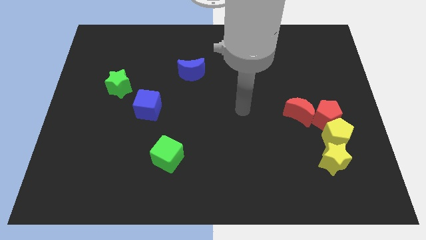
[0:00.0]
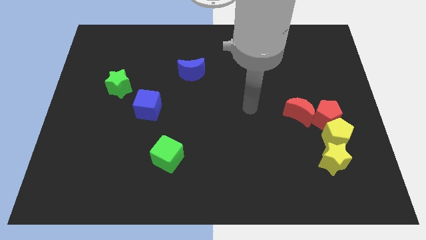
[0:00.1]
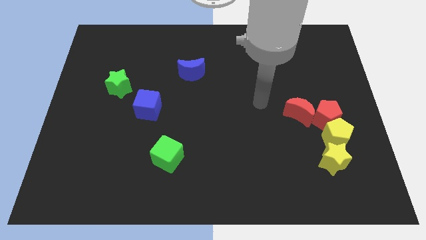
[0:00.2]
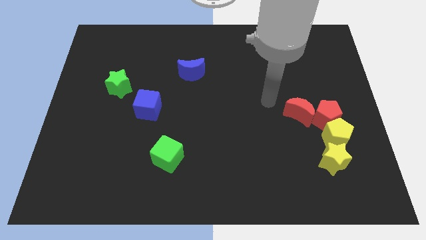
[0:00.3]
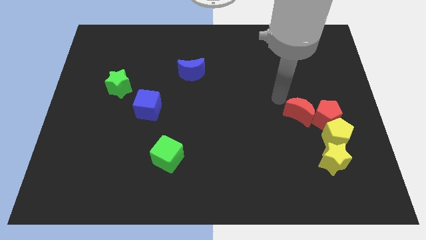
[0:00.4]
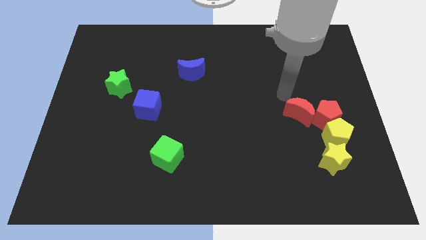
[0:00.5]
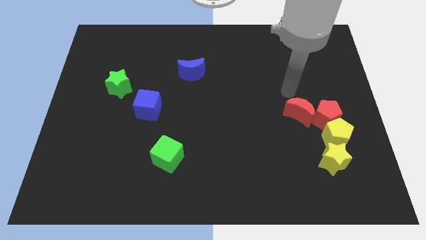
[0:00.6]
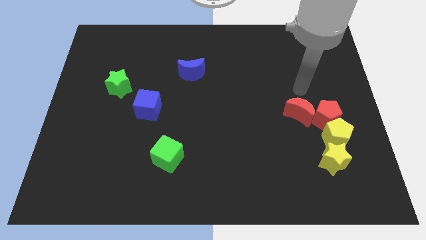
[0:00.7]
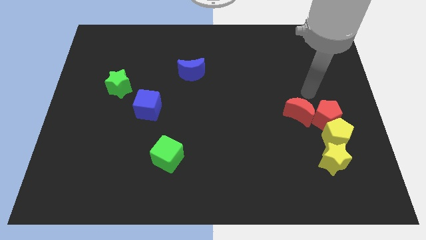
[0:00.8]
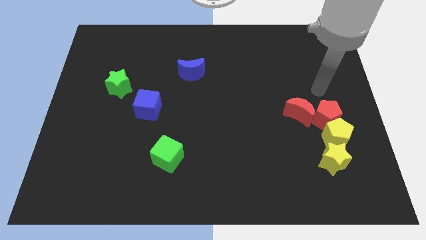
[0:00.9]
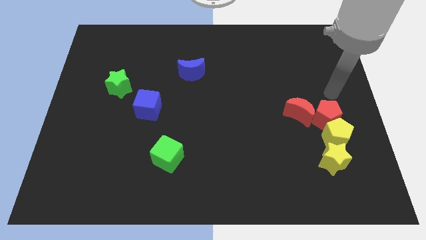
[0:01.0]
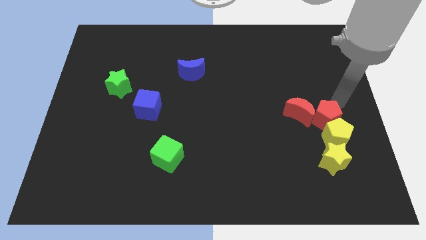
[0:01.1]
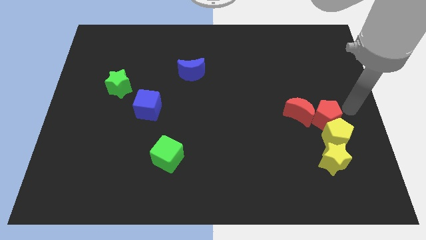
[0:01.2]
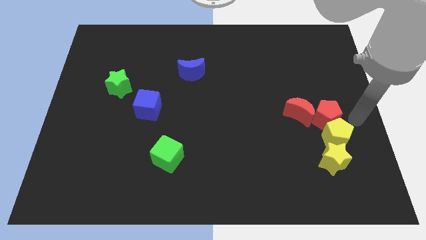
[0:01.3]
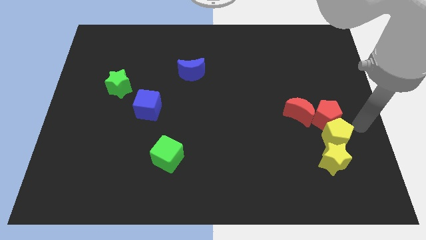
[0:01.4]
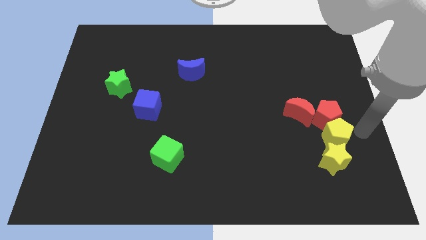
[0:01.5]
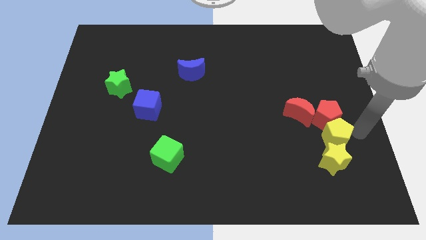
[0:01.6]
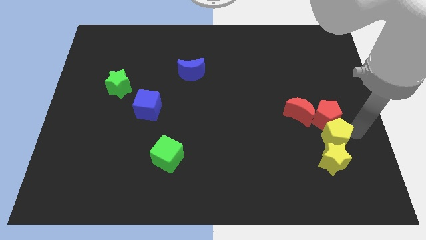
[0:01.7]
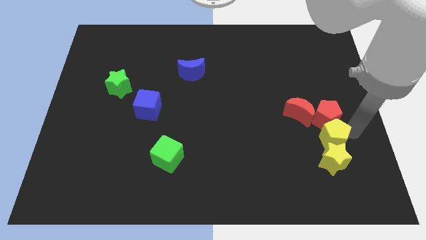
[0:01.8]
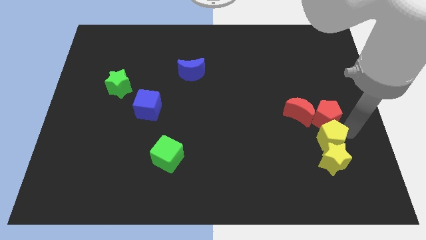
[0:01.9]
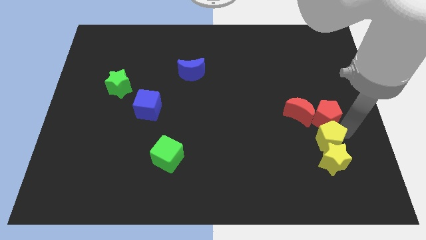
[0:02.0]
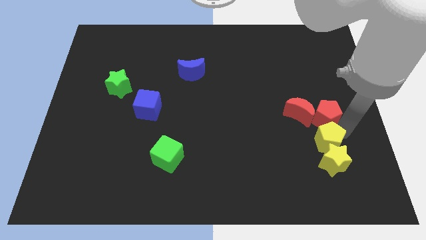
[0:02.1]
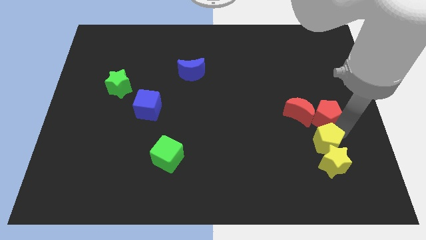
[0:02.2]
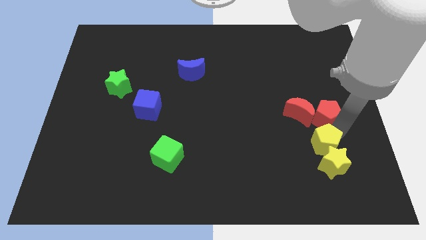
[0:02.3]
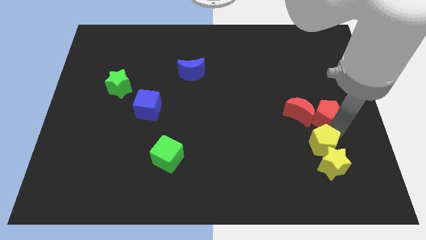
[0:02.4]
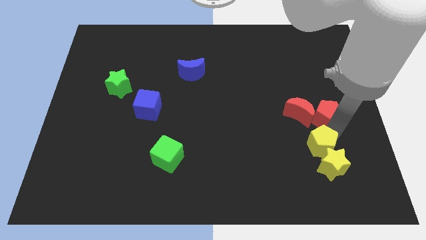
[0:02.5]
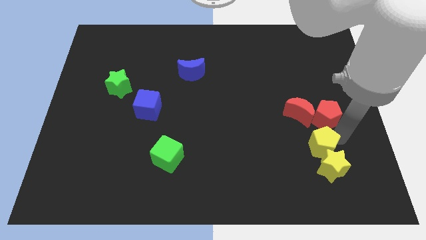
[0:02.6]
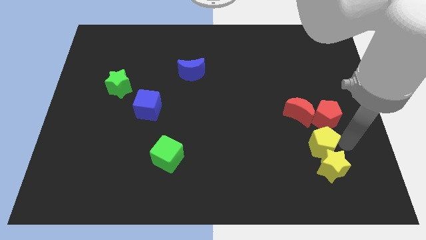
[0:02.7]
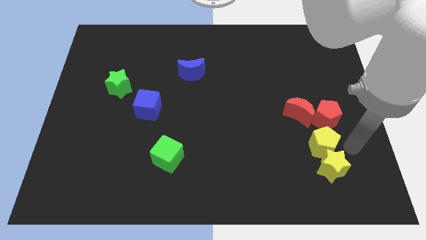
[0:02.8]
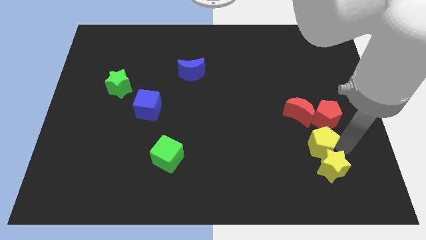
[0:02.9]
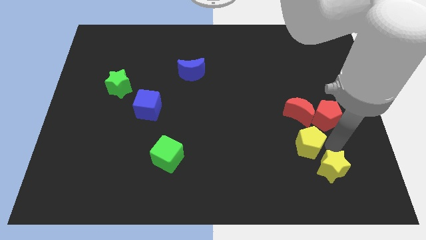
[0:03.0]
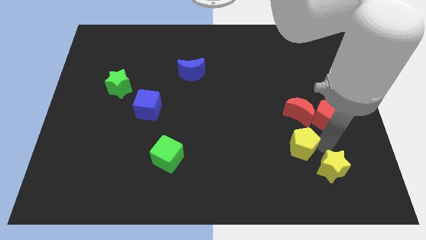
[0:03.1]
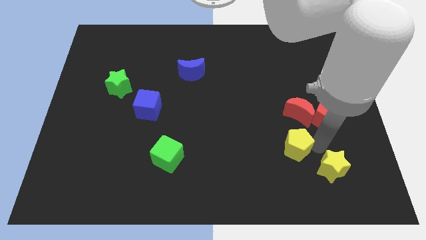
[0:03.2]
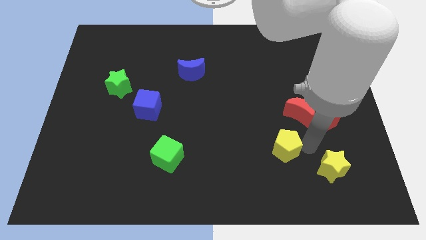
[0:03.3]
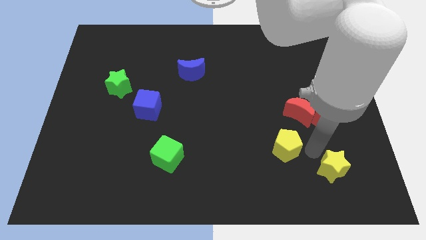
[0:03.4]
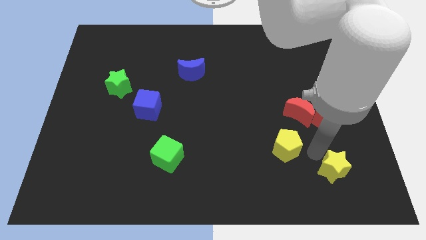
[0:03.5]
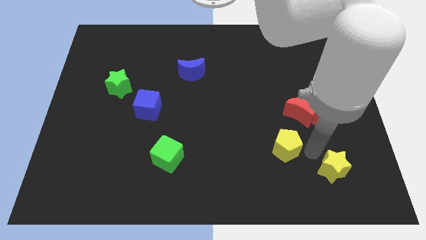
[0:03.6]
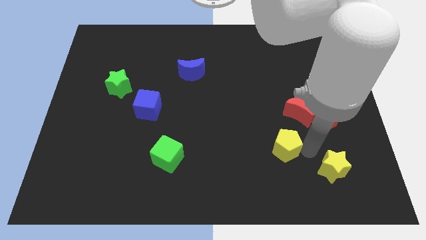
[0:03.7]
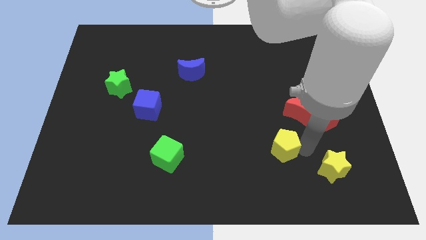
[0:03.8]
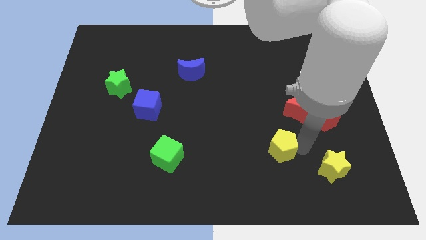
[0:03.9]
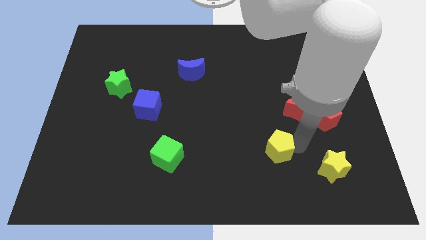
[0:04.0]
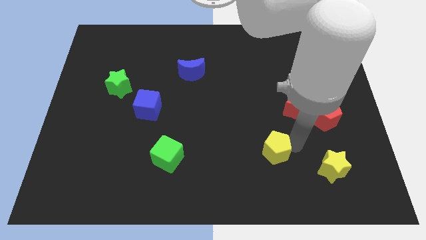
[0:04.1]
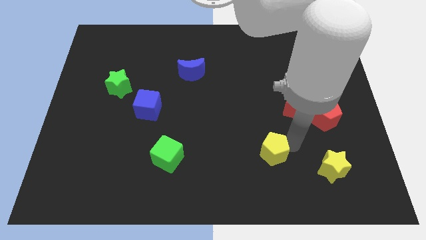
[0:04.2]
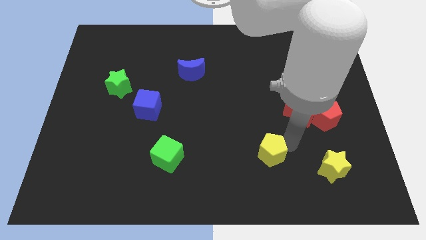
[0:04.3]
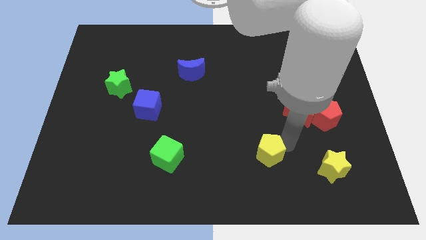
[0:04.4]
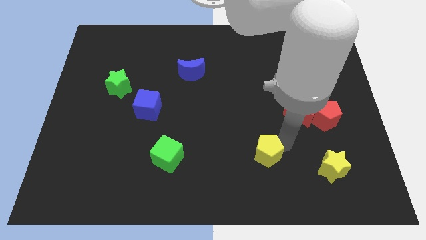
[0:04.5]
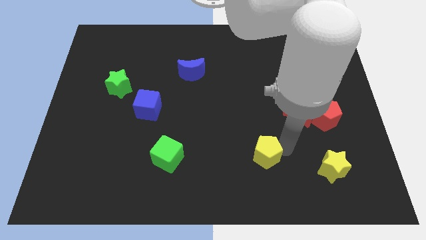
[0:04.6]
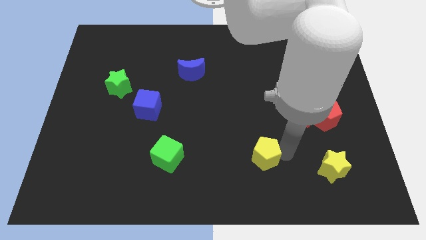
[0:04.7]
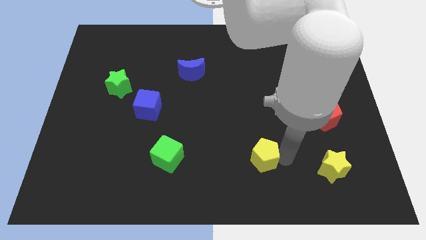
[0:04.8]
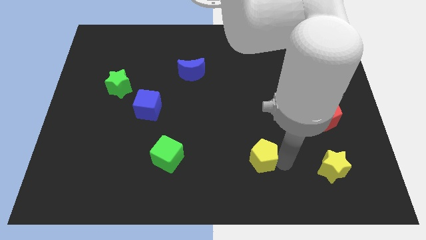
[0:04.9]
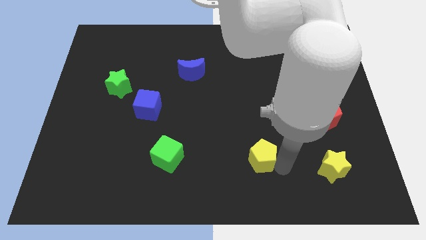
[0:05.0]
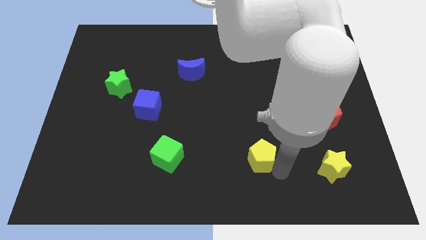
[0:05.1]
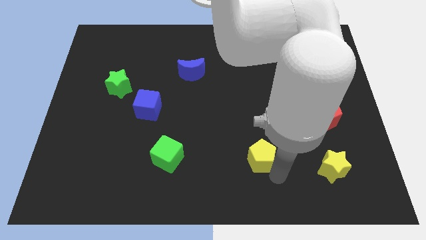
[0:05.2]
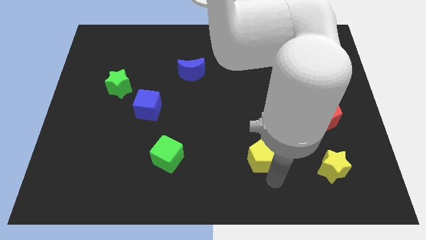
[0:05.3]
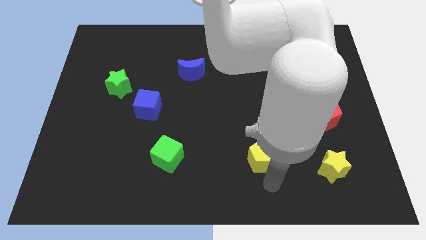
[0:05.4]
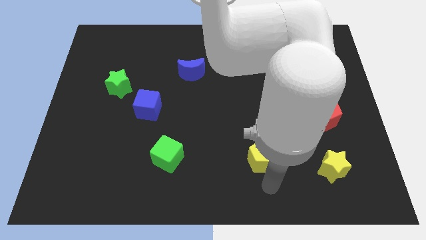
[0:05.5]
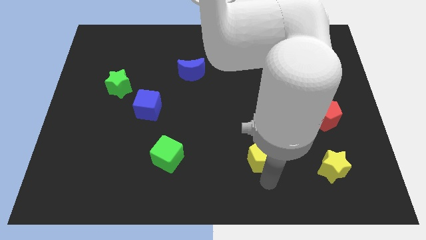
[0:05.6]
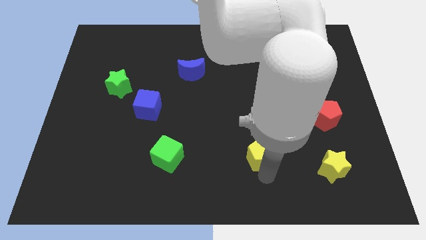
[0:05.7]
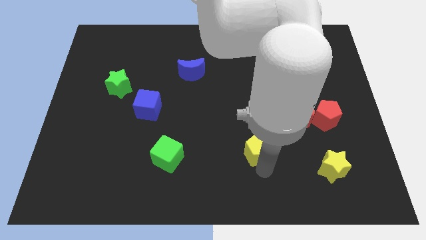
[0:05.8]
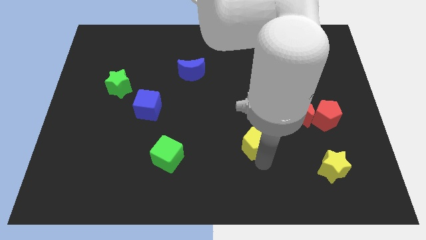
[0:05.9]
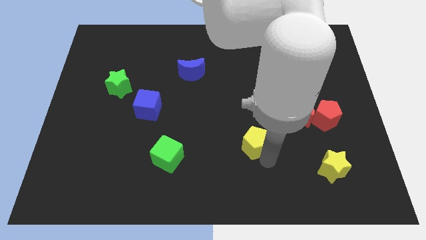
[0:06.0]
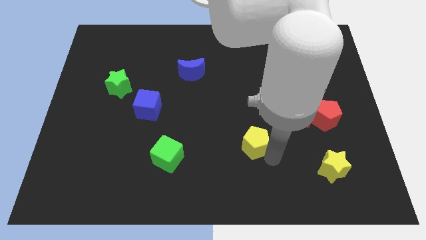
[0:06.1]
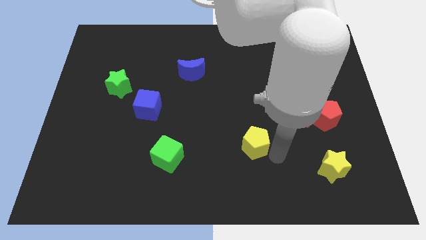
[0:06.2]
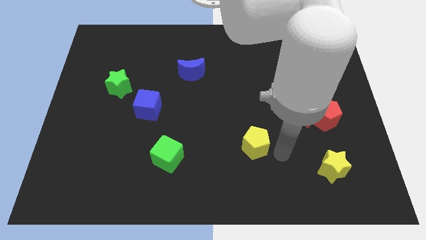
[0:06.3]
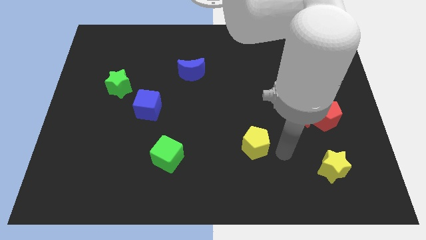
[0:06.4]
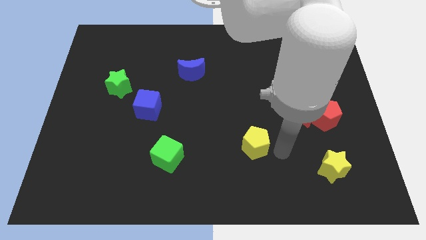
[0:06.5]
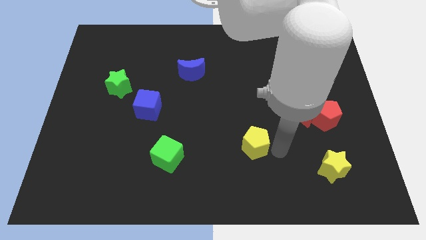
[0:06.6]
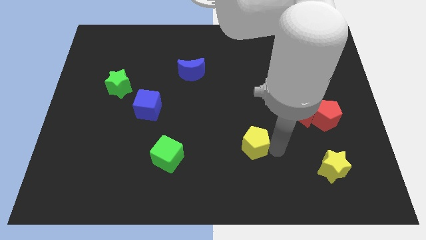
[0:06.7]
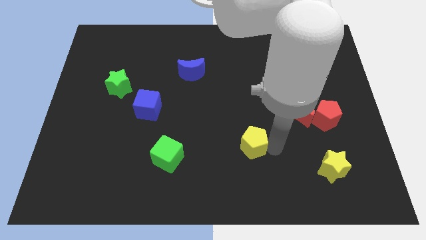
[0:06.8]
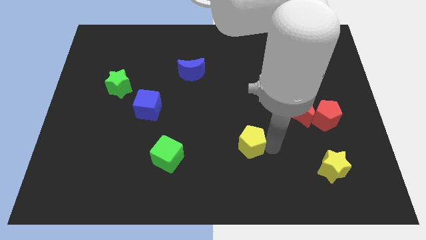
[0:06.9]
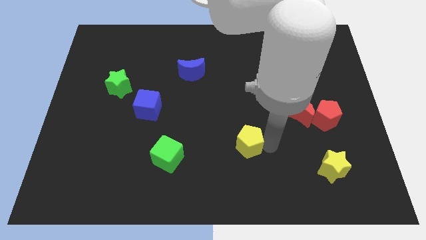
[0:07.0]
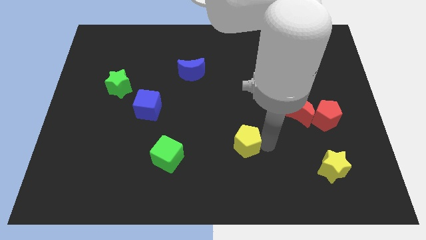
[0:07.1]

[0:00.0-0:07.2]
slide the yellow pentagon to the left

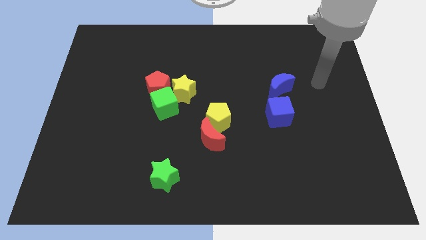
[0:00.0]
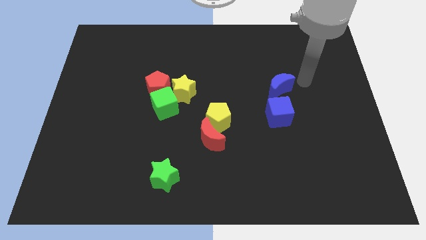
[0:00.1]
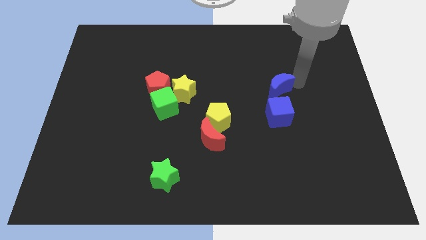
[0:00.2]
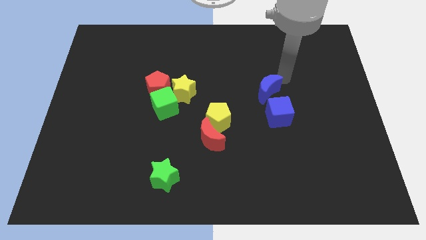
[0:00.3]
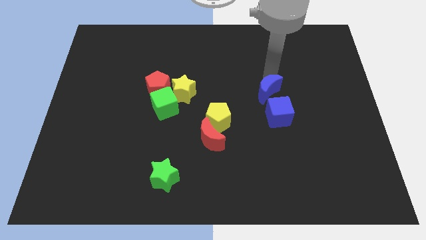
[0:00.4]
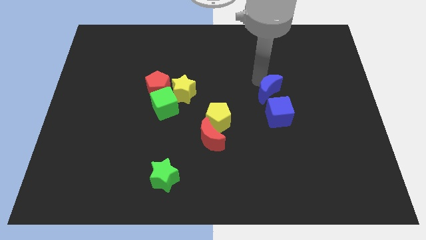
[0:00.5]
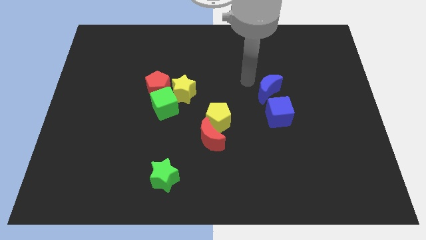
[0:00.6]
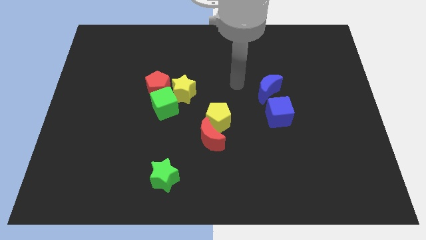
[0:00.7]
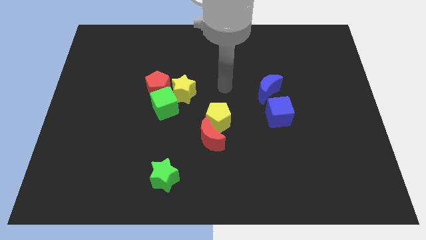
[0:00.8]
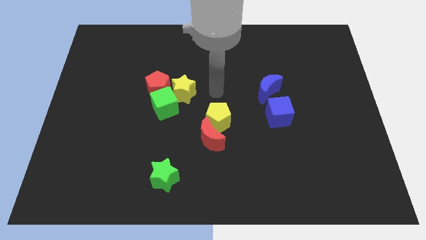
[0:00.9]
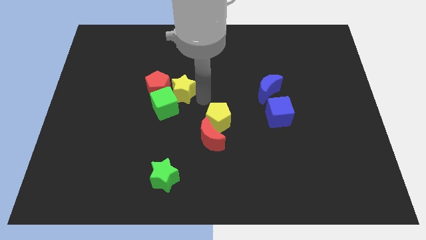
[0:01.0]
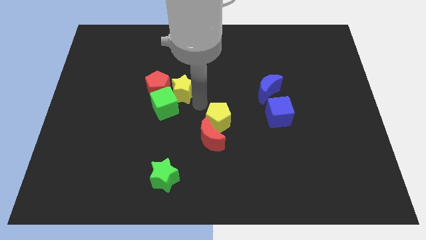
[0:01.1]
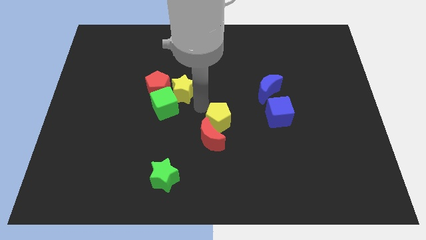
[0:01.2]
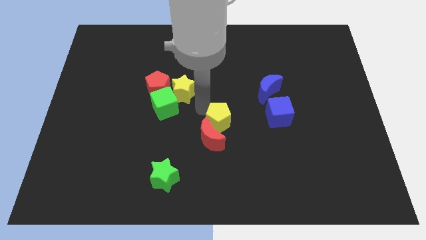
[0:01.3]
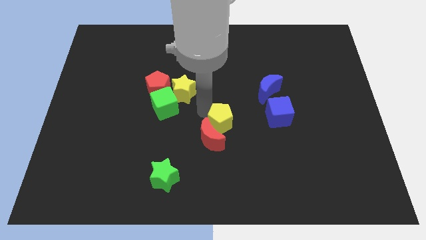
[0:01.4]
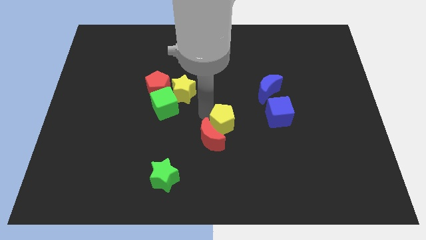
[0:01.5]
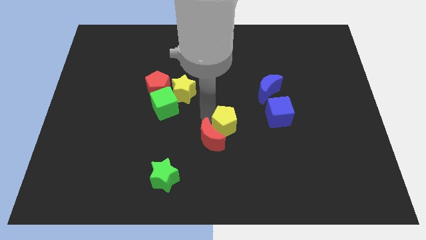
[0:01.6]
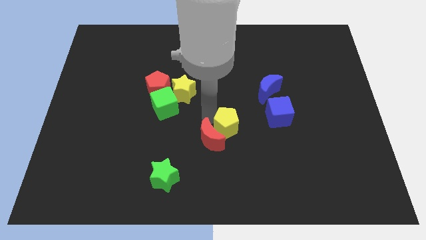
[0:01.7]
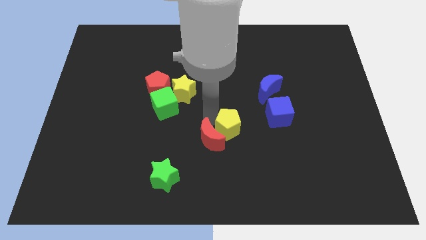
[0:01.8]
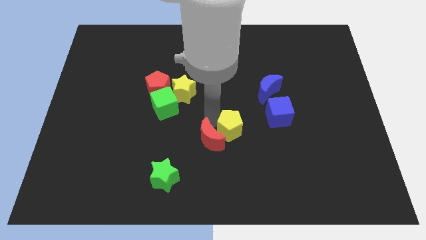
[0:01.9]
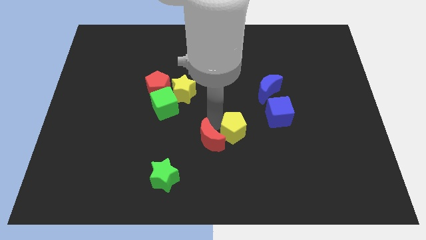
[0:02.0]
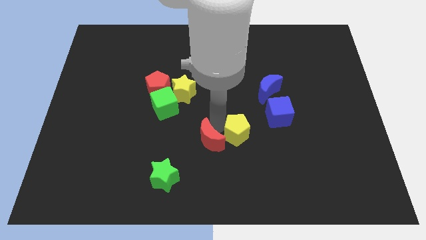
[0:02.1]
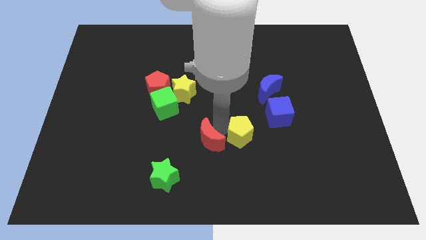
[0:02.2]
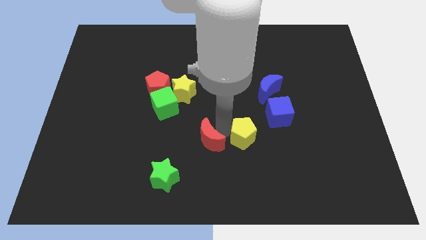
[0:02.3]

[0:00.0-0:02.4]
slide the yellow pentagon down and to the right diagonally a bit
